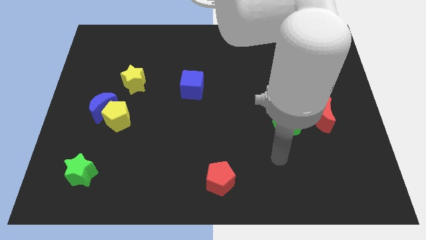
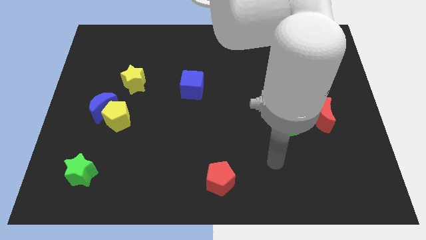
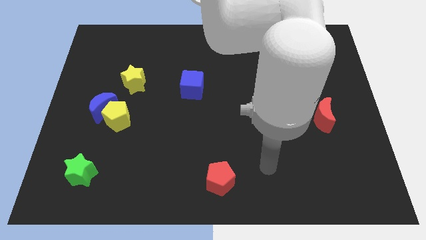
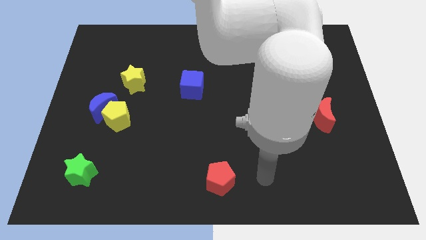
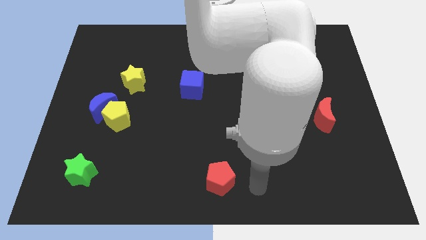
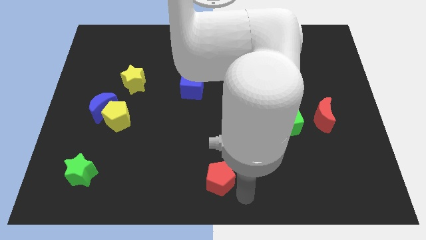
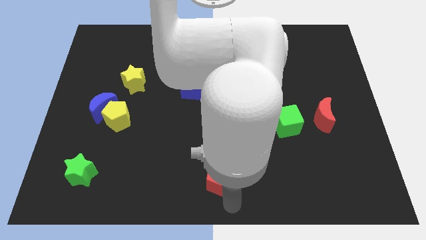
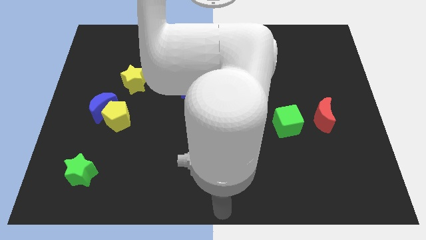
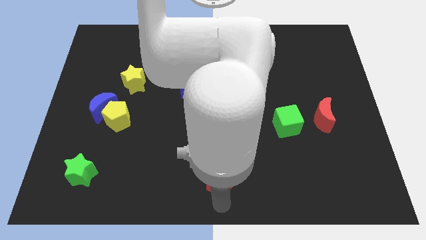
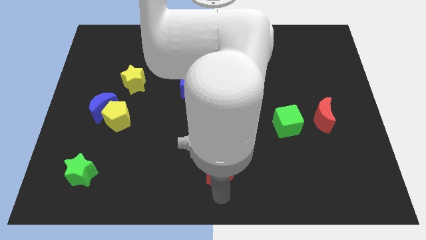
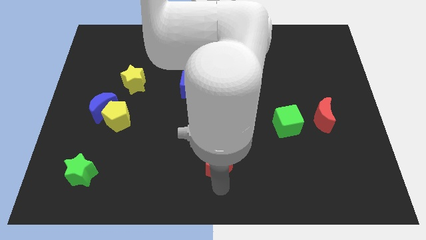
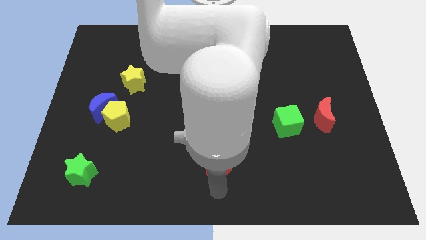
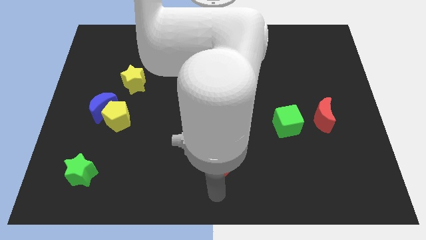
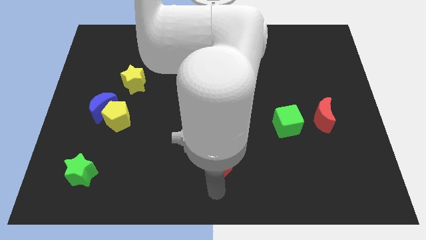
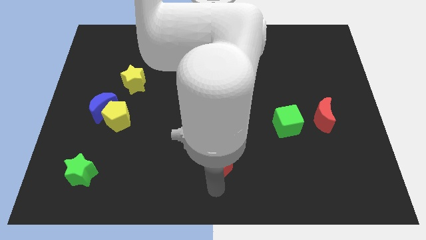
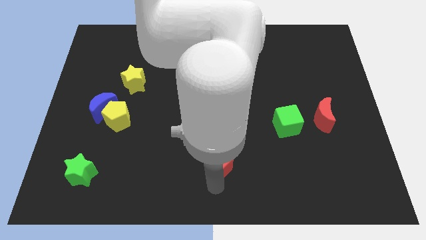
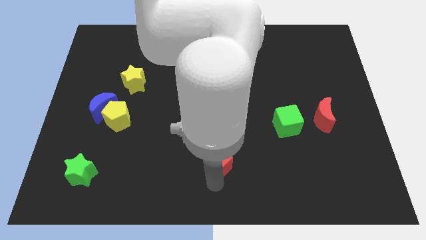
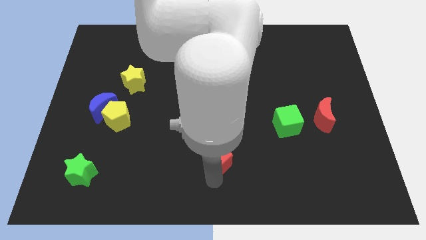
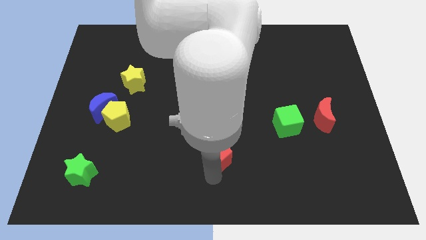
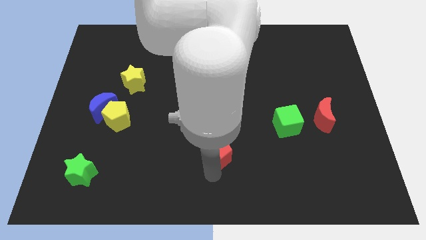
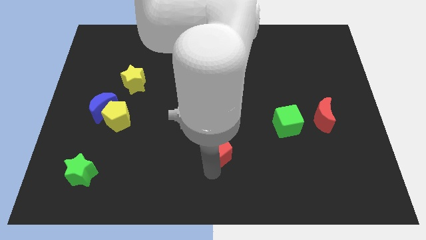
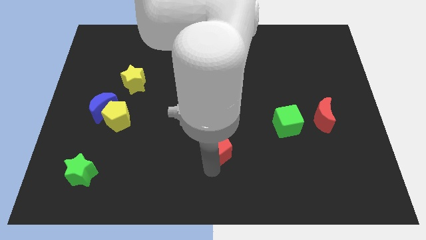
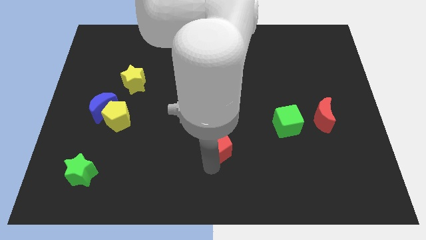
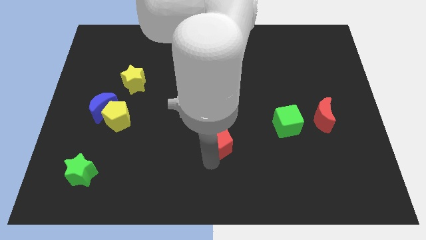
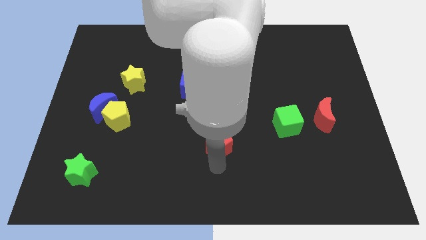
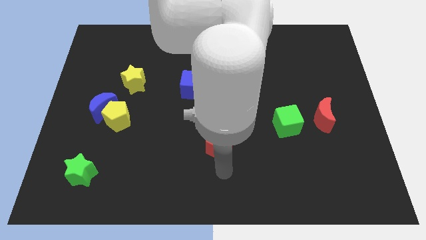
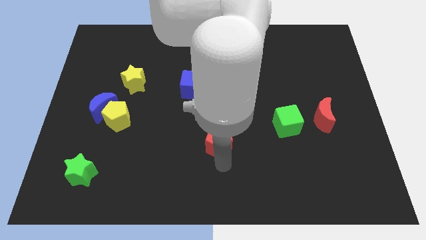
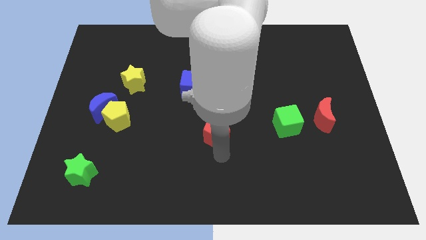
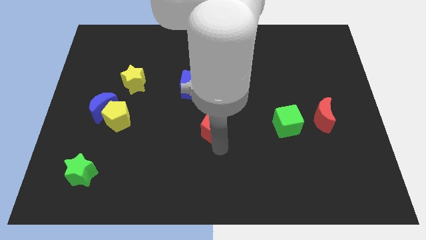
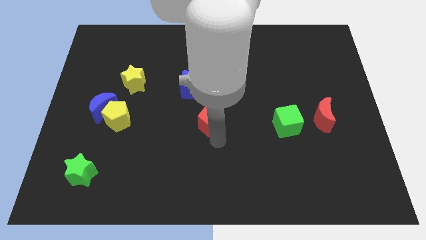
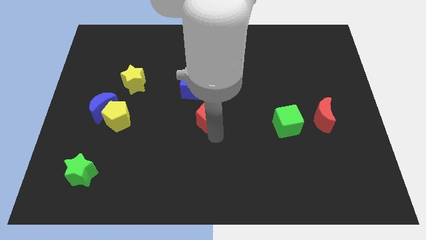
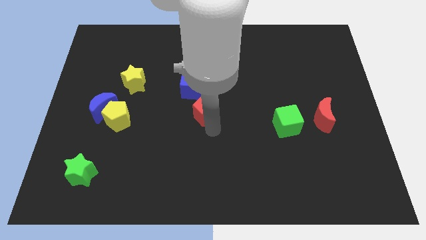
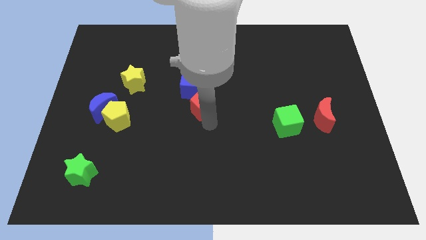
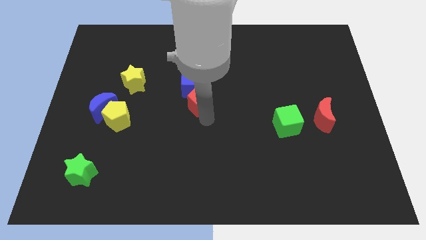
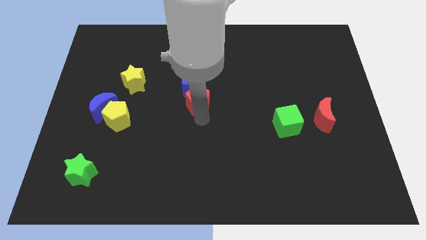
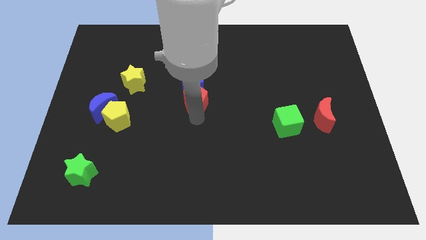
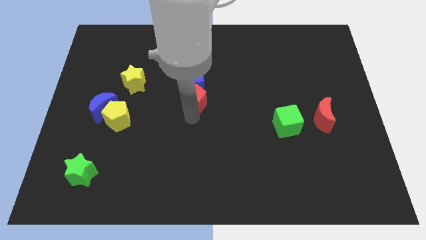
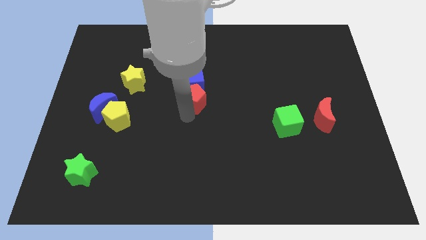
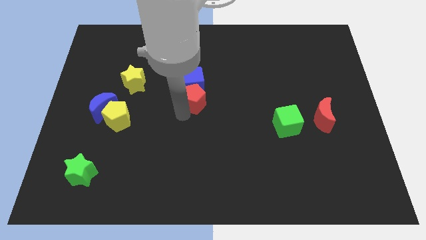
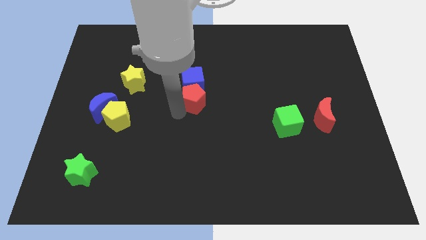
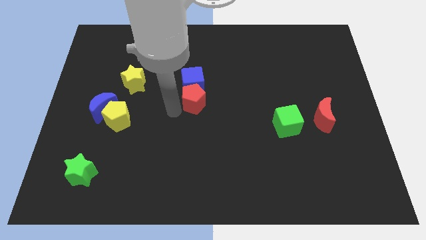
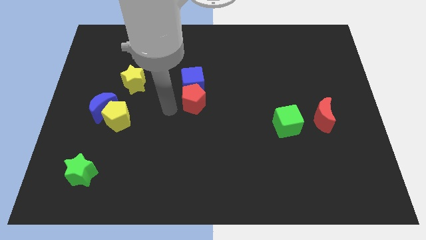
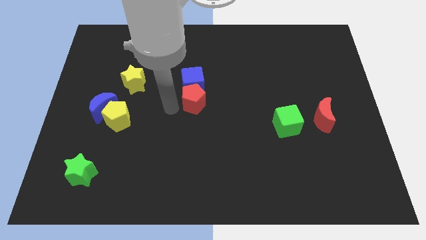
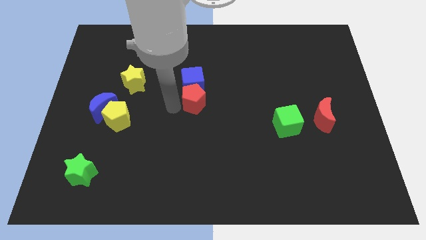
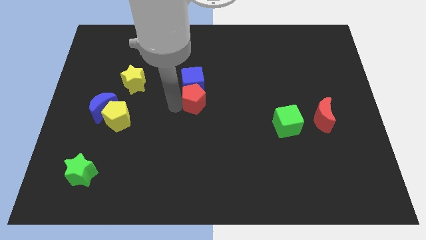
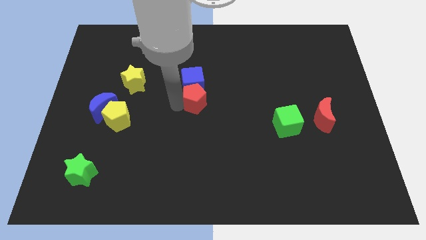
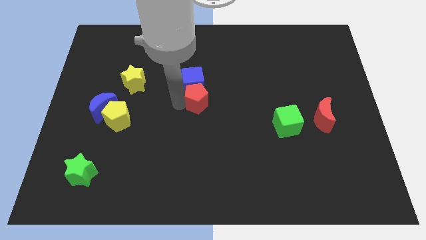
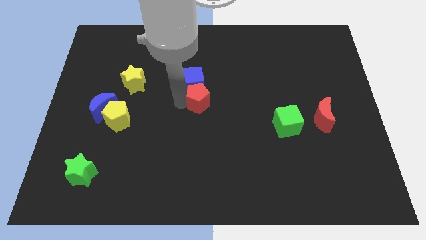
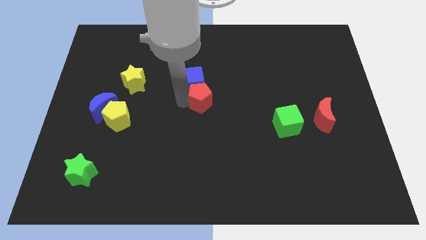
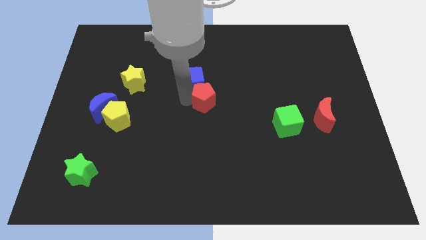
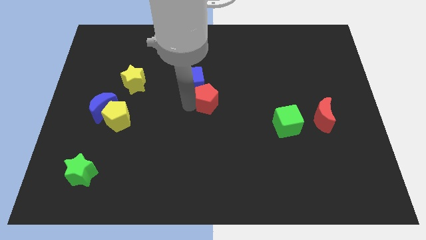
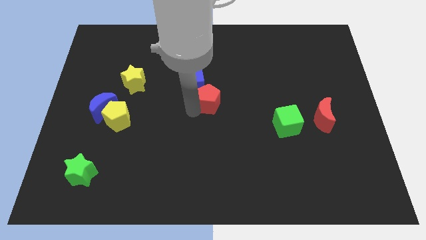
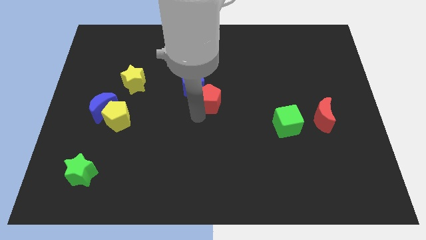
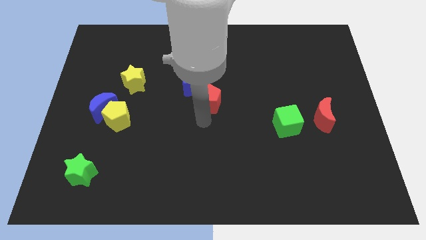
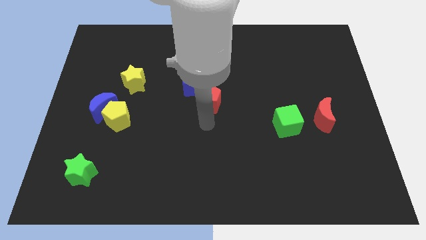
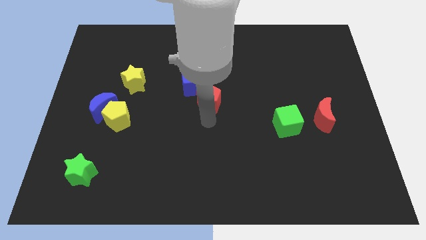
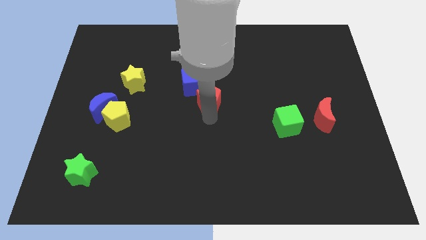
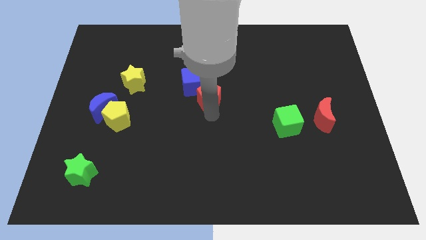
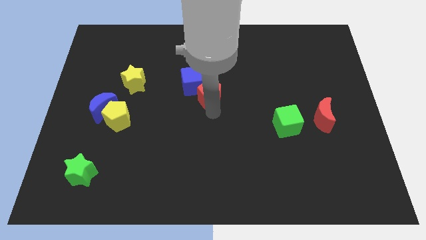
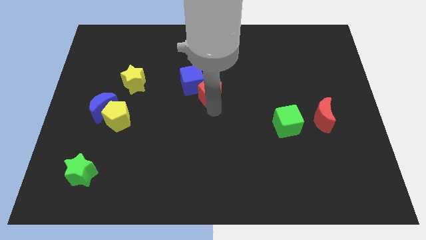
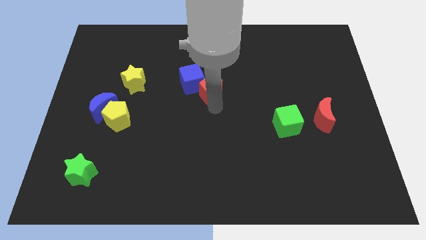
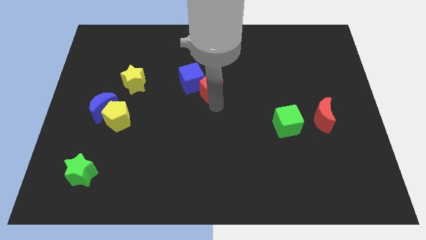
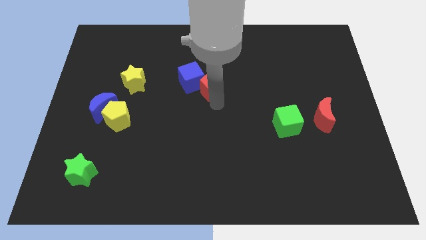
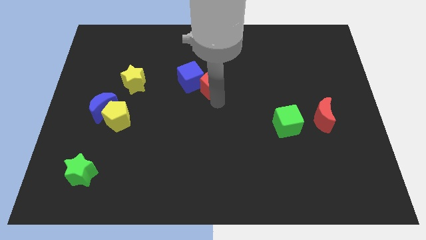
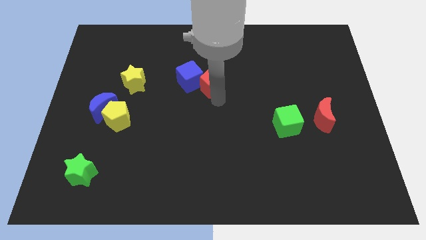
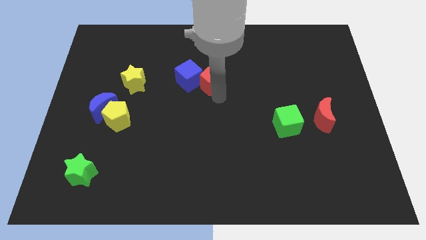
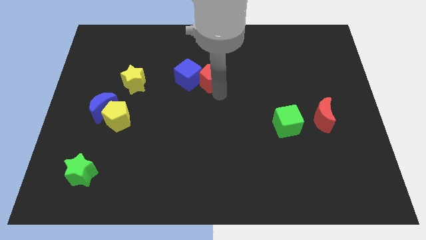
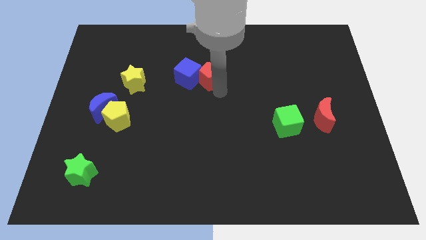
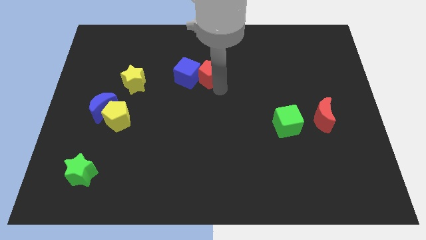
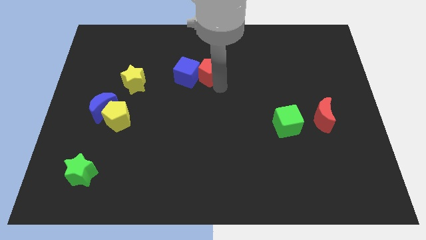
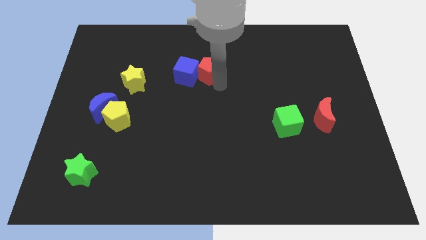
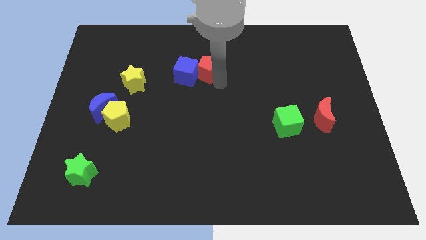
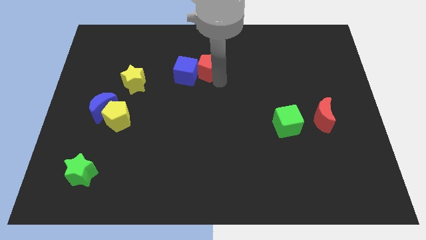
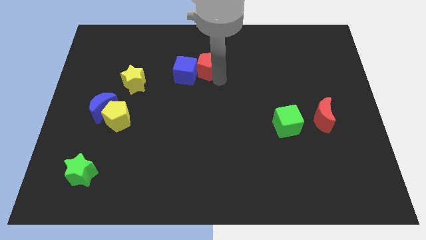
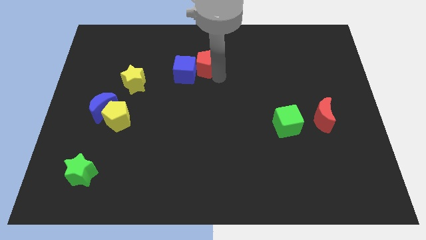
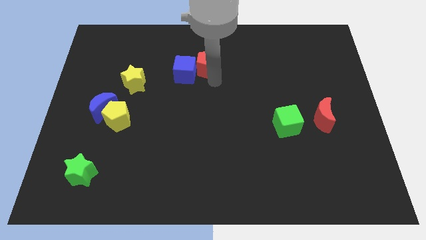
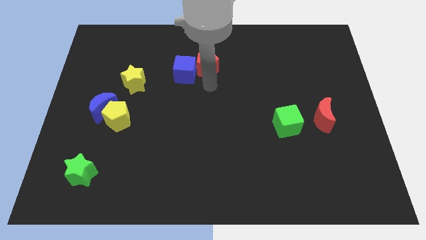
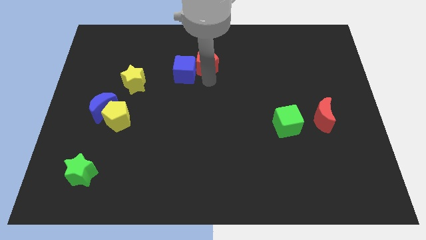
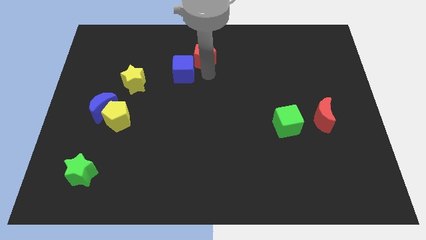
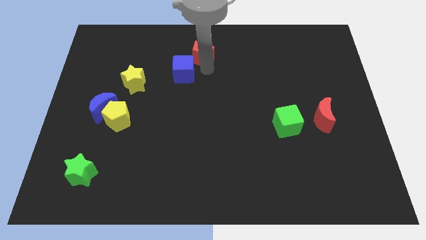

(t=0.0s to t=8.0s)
put the red pentagon to the top
